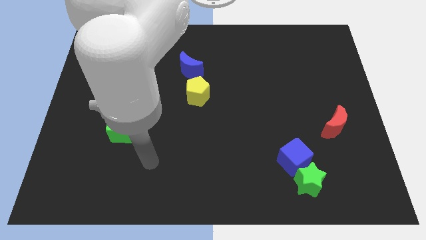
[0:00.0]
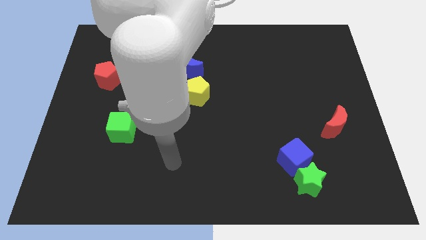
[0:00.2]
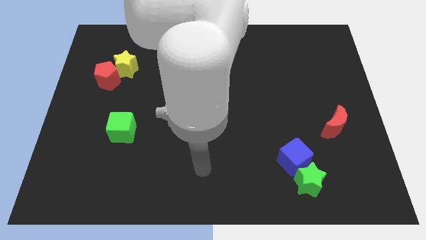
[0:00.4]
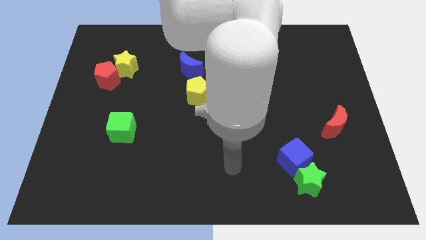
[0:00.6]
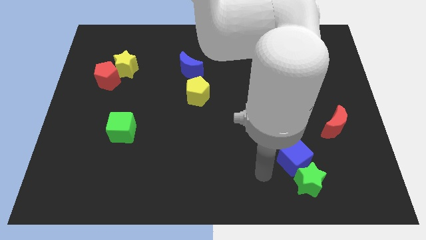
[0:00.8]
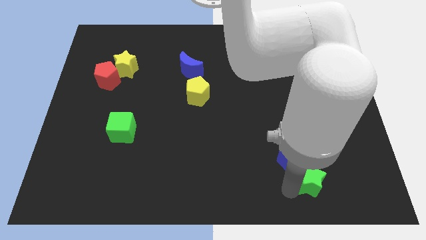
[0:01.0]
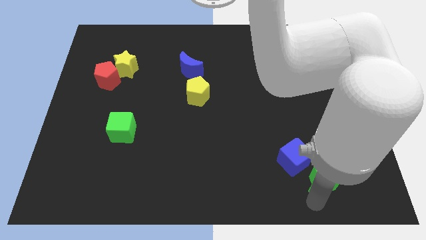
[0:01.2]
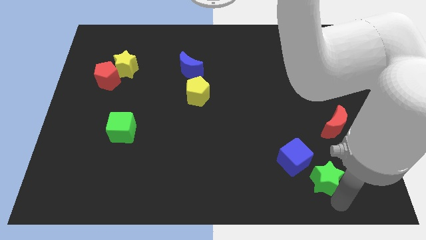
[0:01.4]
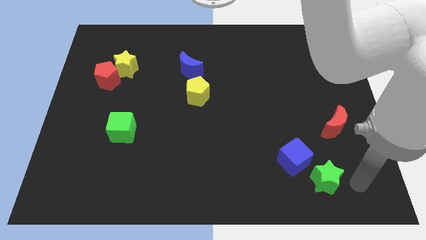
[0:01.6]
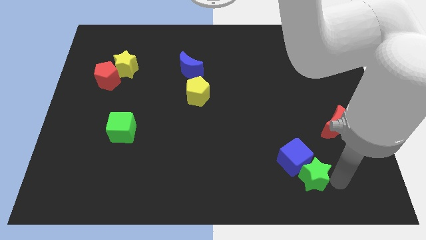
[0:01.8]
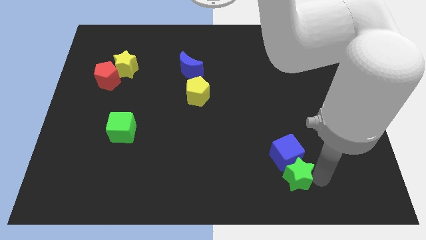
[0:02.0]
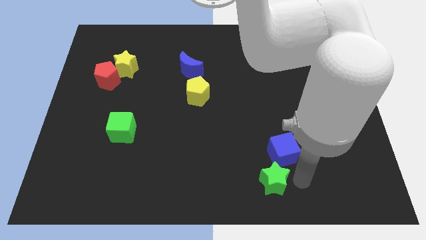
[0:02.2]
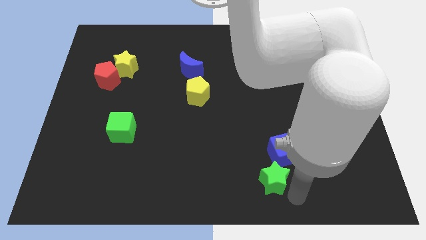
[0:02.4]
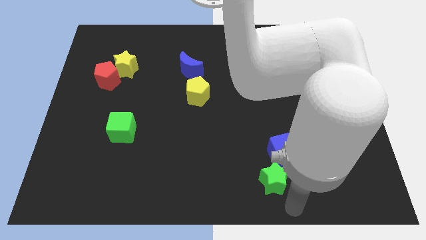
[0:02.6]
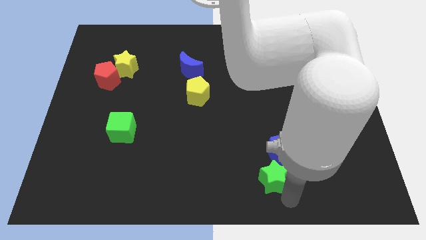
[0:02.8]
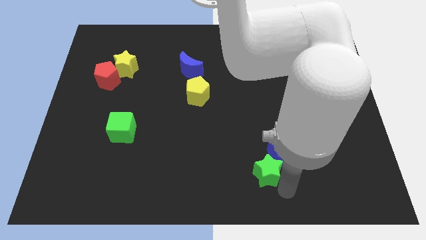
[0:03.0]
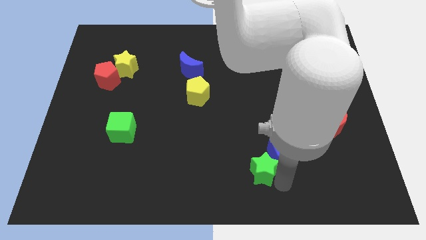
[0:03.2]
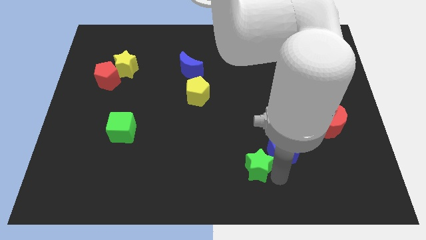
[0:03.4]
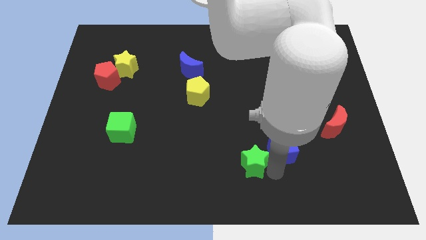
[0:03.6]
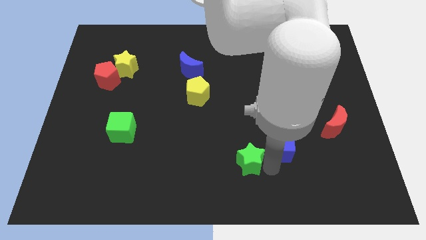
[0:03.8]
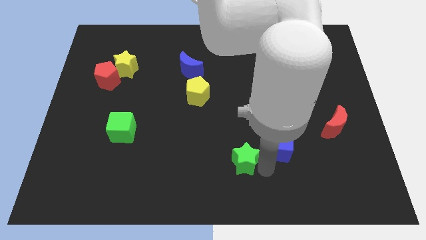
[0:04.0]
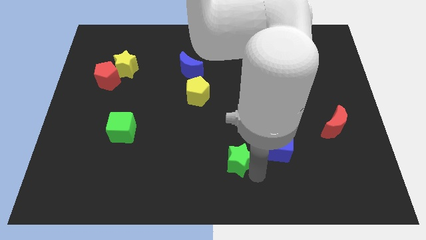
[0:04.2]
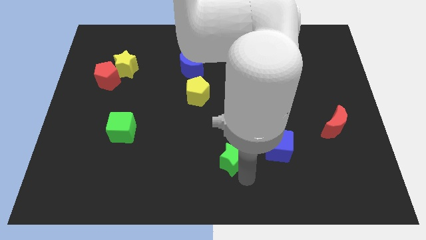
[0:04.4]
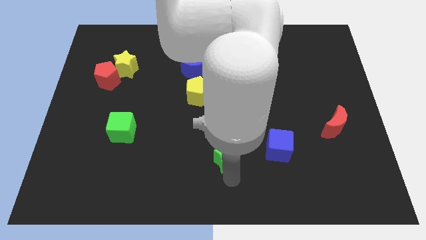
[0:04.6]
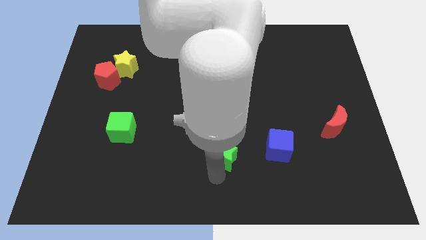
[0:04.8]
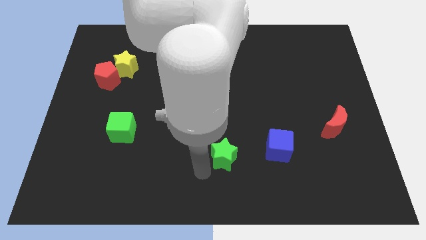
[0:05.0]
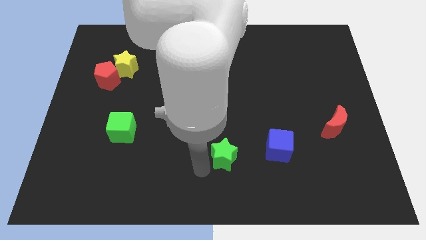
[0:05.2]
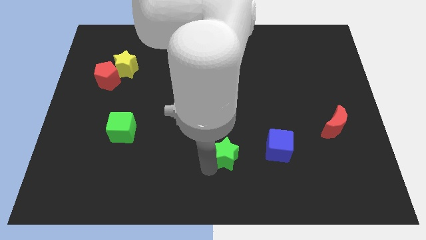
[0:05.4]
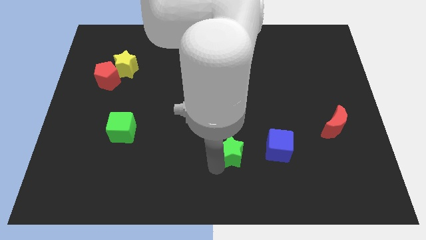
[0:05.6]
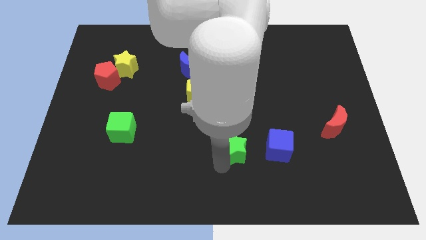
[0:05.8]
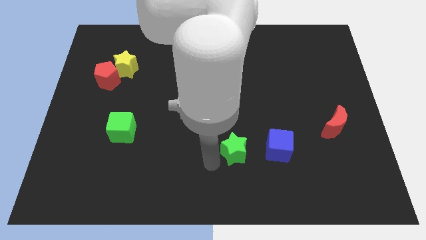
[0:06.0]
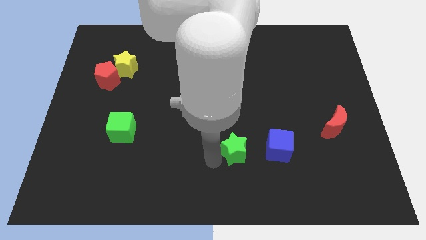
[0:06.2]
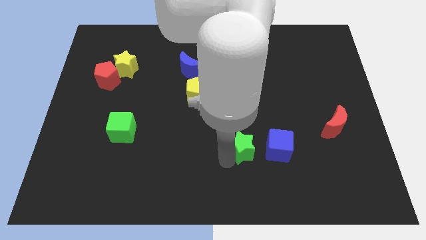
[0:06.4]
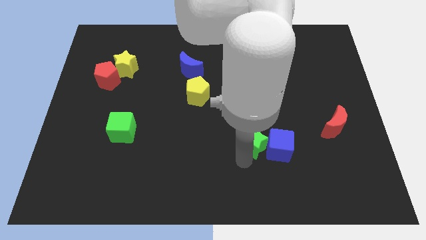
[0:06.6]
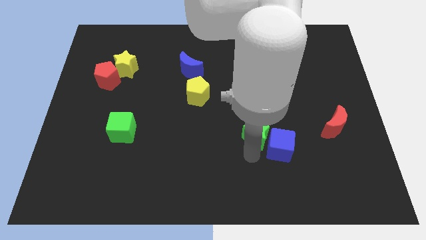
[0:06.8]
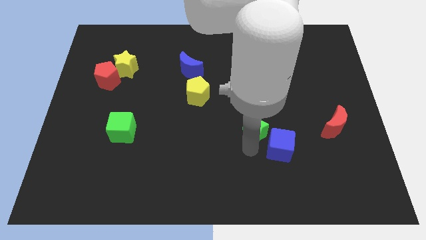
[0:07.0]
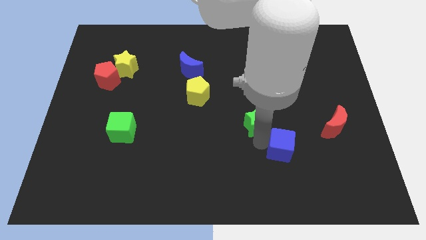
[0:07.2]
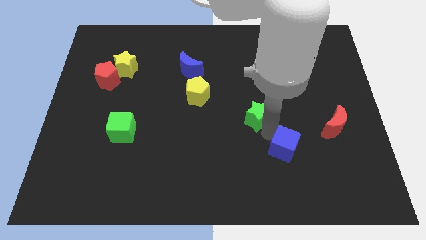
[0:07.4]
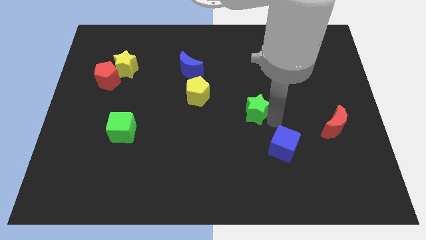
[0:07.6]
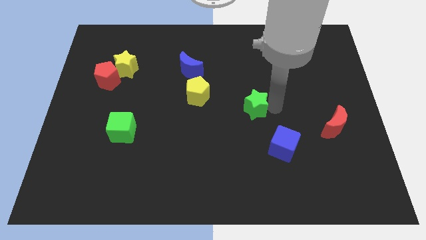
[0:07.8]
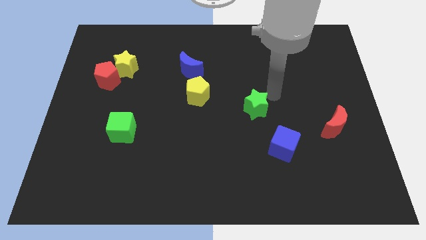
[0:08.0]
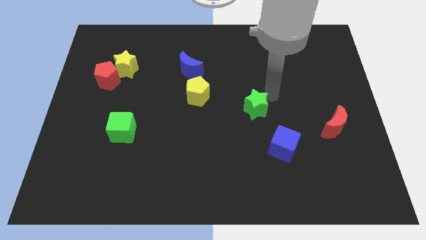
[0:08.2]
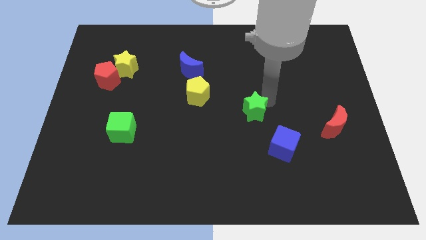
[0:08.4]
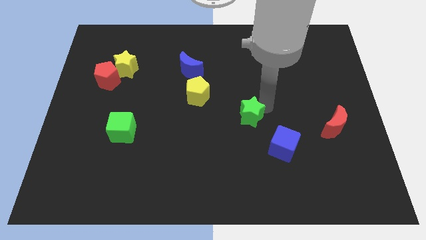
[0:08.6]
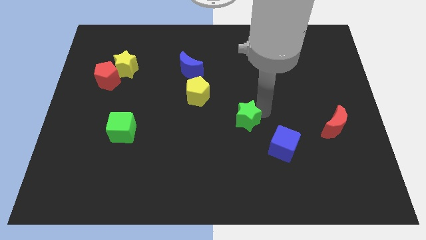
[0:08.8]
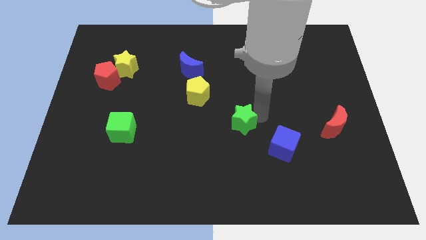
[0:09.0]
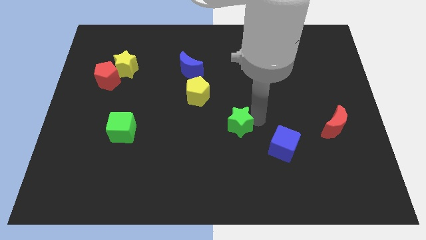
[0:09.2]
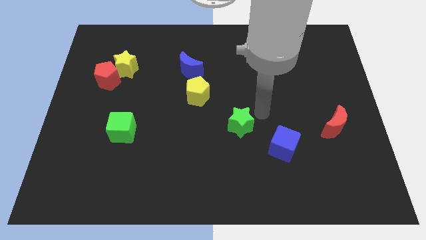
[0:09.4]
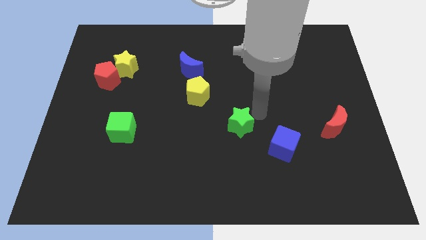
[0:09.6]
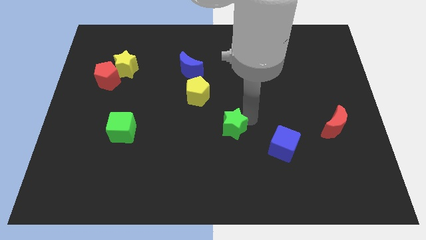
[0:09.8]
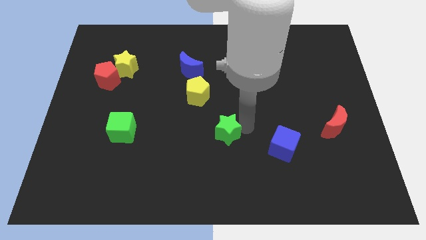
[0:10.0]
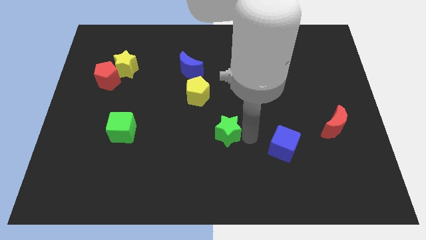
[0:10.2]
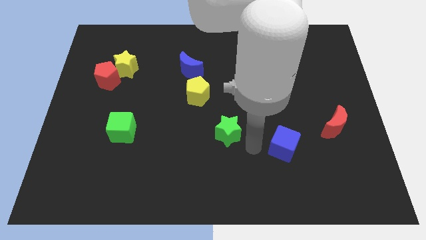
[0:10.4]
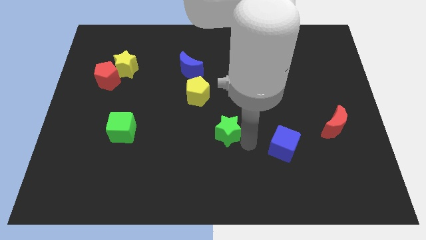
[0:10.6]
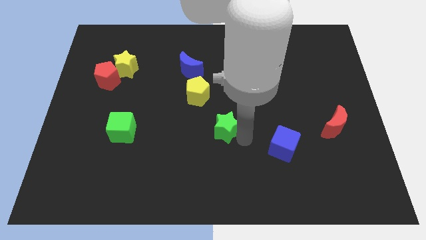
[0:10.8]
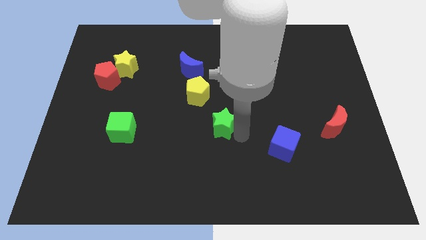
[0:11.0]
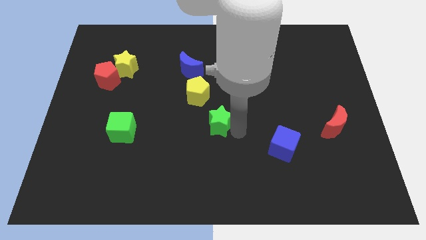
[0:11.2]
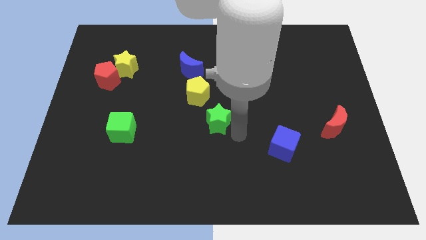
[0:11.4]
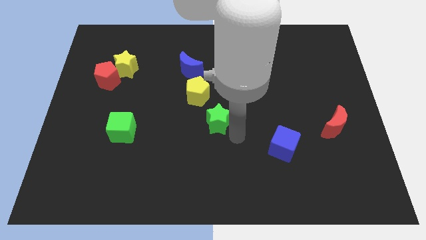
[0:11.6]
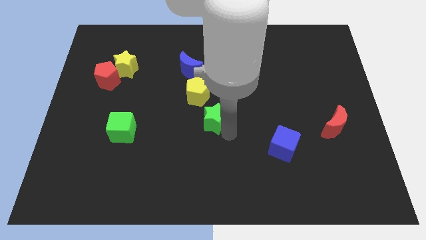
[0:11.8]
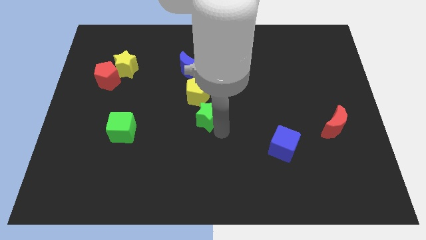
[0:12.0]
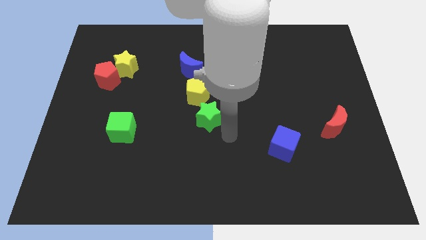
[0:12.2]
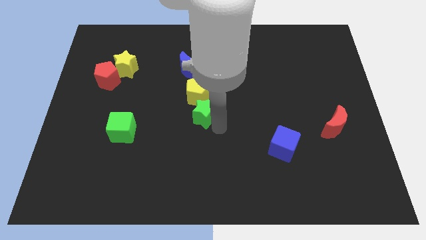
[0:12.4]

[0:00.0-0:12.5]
move the green star to the bottom side of the blue moon

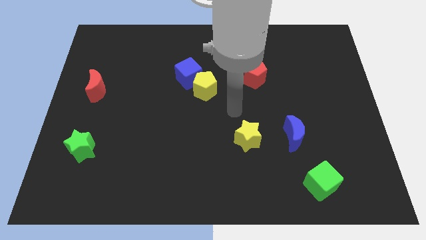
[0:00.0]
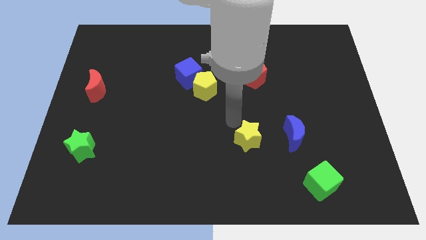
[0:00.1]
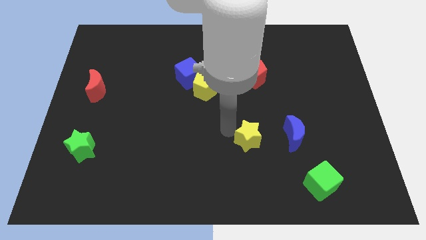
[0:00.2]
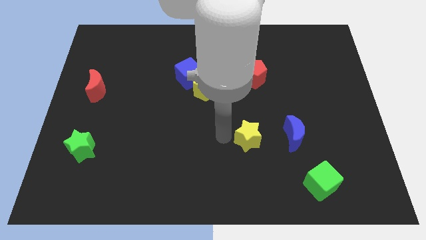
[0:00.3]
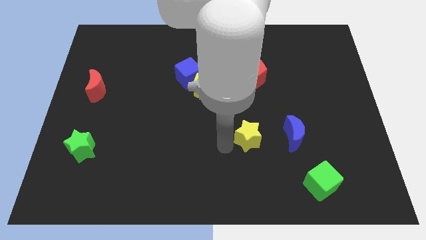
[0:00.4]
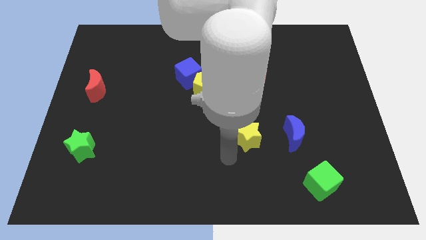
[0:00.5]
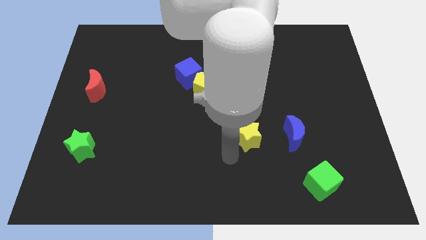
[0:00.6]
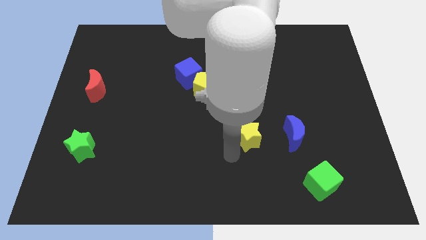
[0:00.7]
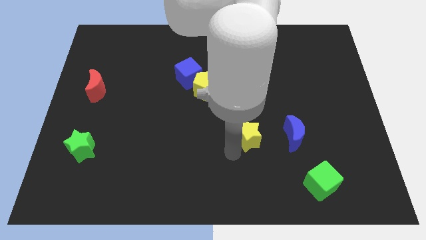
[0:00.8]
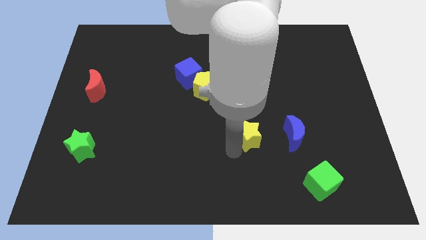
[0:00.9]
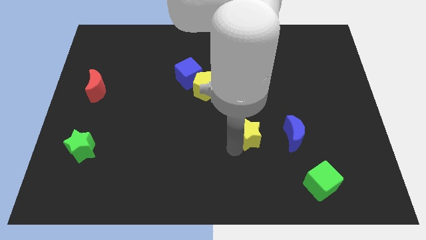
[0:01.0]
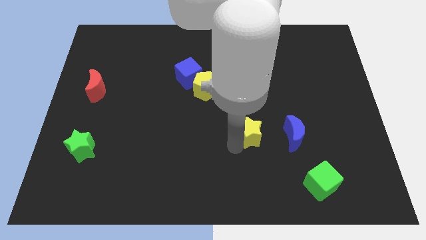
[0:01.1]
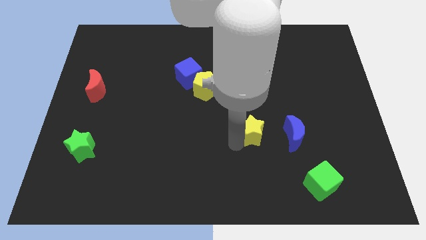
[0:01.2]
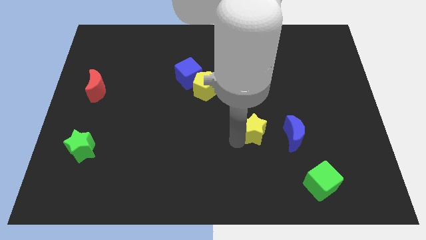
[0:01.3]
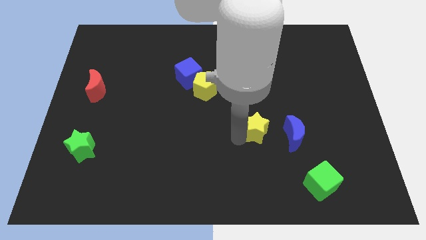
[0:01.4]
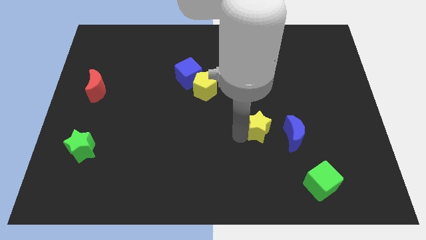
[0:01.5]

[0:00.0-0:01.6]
push the yellow star diagonally up and to the left of the blue moon
